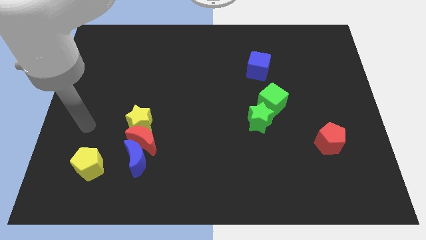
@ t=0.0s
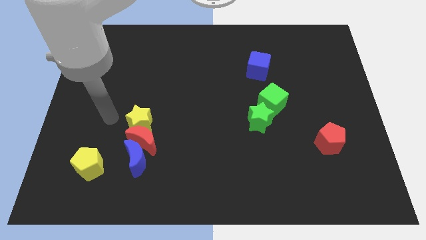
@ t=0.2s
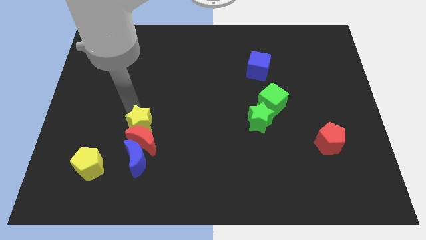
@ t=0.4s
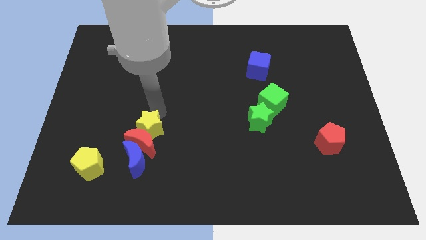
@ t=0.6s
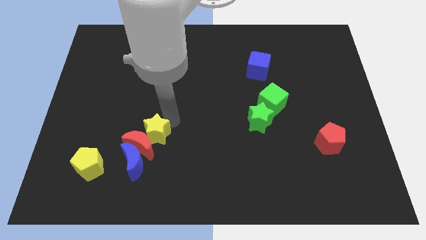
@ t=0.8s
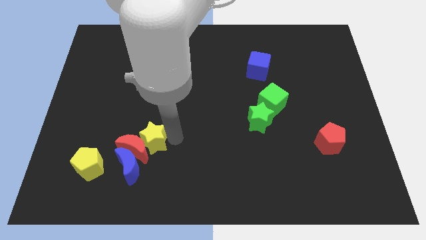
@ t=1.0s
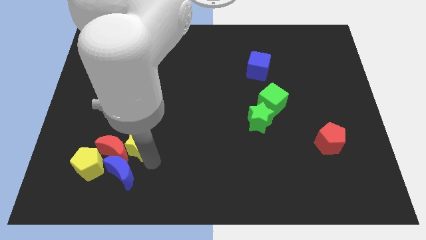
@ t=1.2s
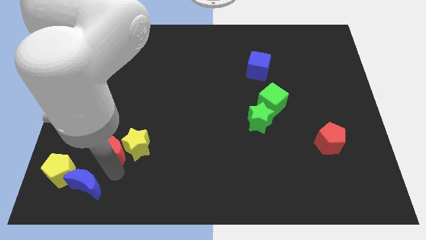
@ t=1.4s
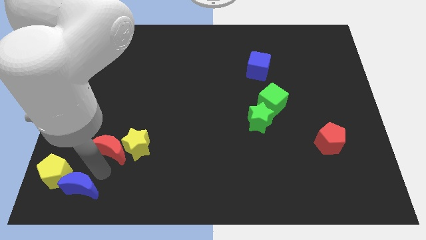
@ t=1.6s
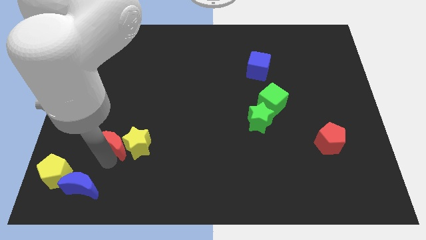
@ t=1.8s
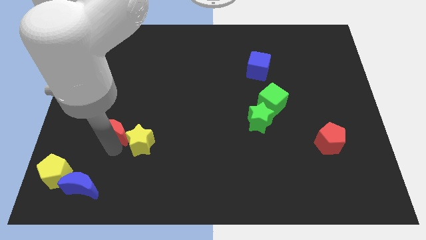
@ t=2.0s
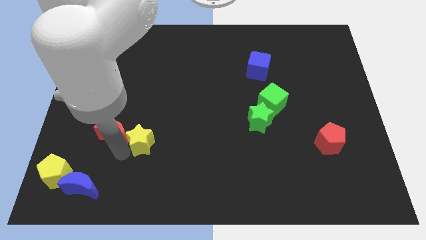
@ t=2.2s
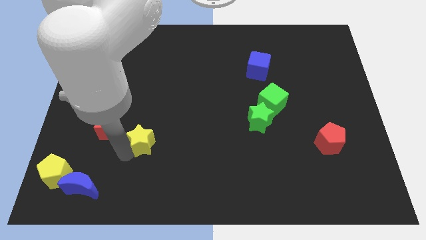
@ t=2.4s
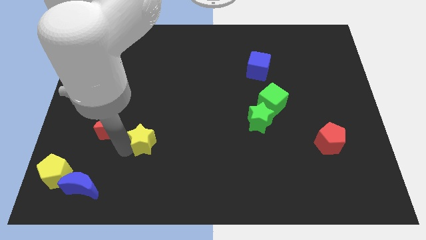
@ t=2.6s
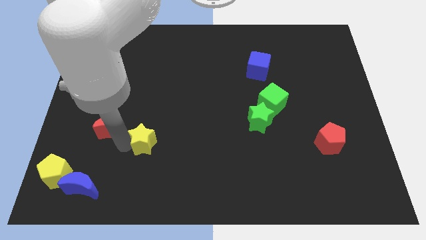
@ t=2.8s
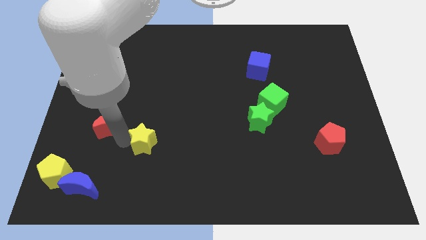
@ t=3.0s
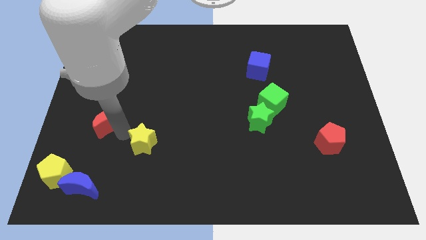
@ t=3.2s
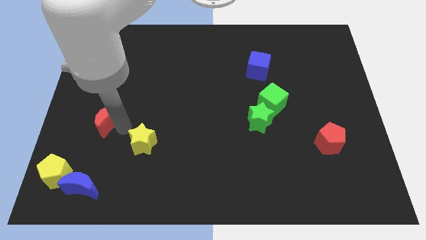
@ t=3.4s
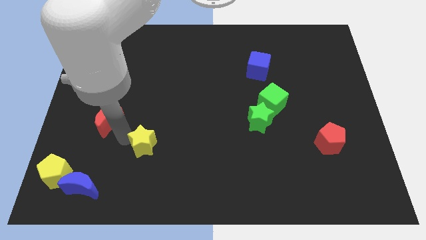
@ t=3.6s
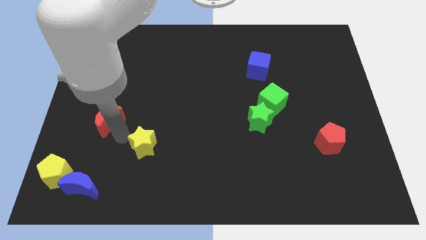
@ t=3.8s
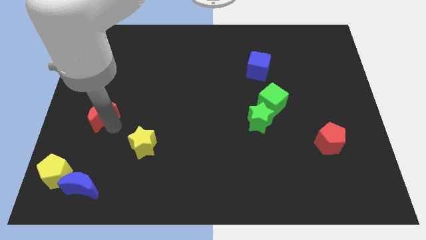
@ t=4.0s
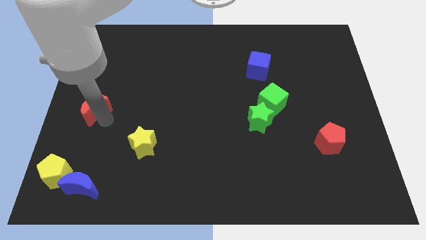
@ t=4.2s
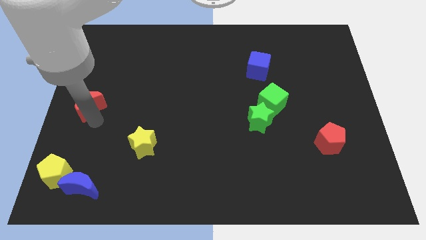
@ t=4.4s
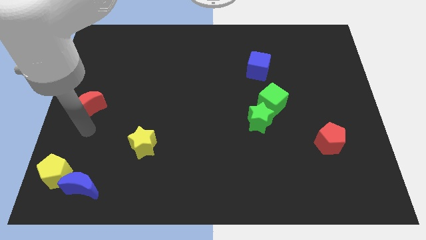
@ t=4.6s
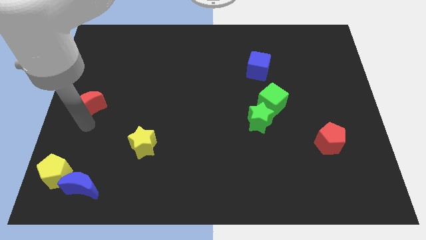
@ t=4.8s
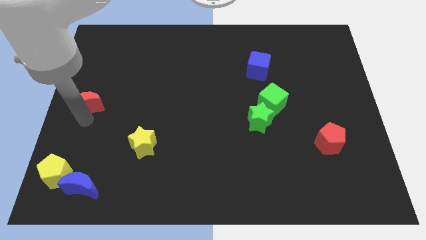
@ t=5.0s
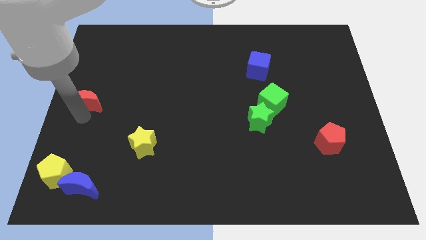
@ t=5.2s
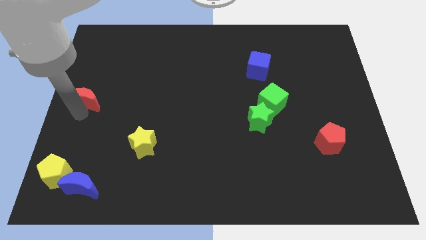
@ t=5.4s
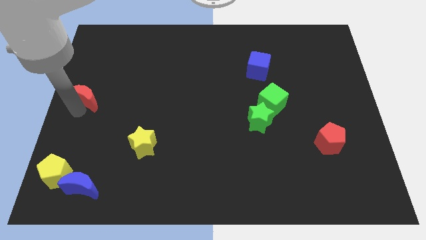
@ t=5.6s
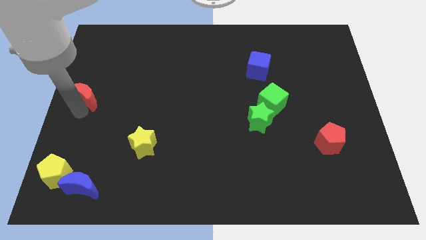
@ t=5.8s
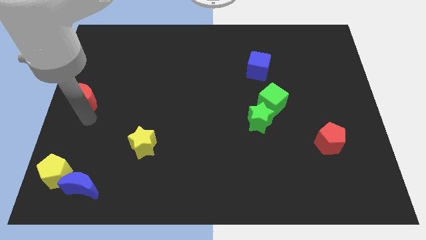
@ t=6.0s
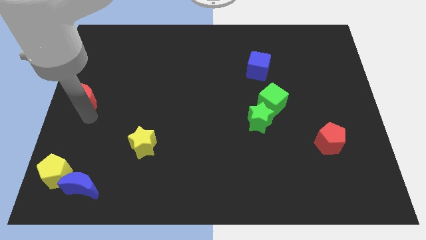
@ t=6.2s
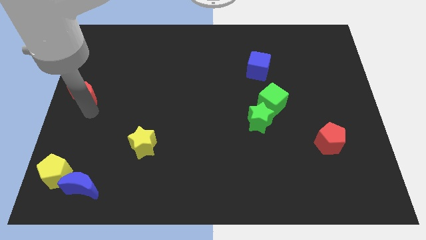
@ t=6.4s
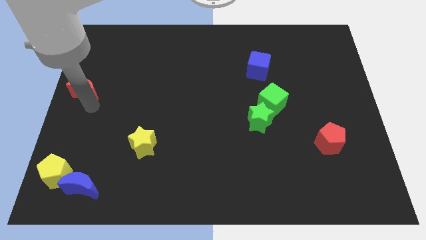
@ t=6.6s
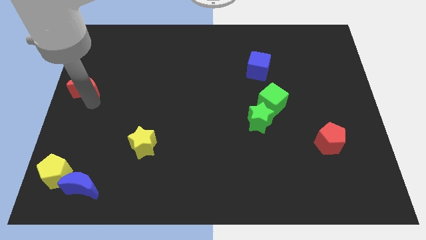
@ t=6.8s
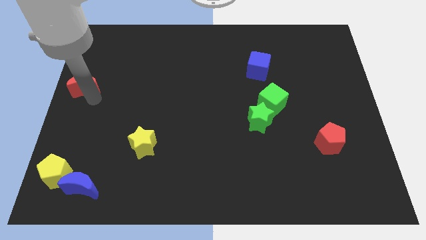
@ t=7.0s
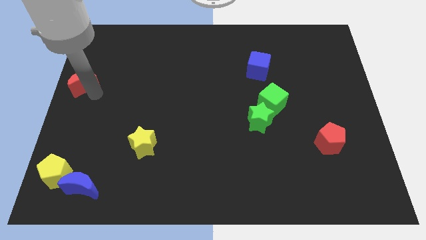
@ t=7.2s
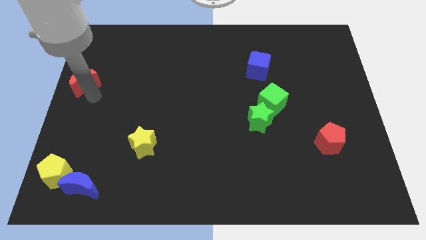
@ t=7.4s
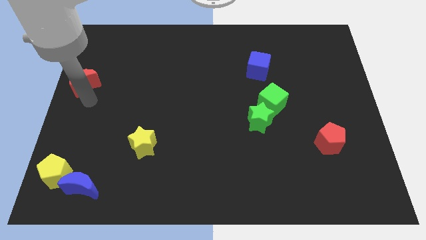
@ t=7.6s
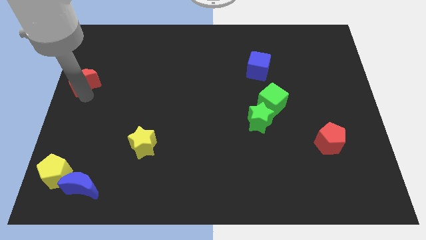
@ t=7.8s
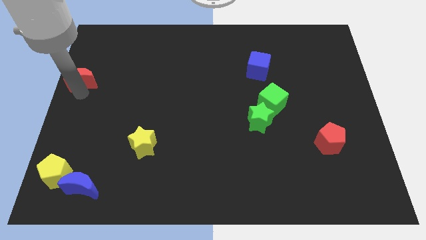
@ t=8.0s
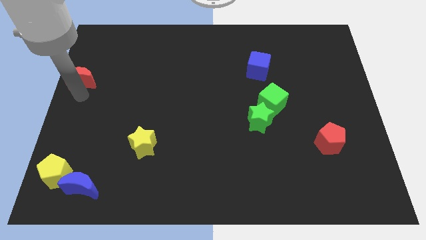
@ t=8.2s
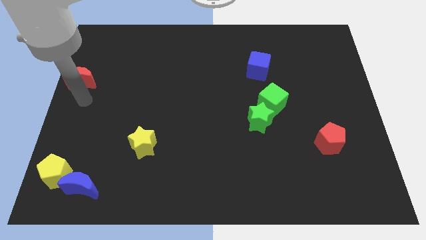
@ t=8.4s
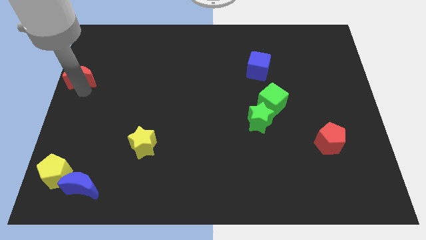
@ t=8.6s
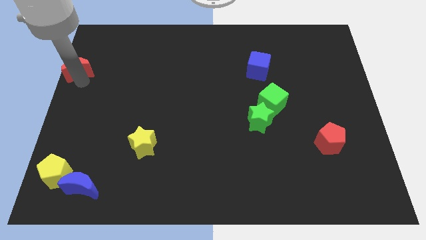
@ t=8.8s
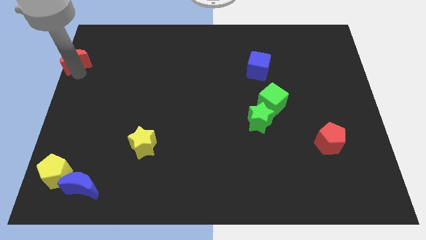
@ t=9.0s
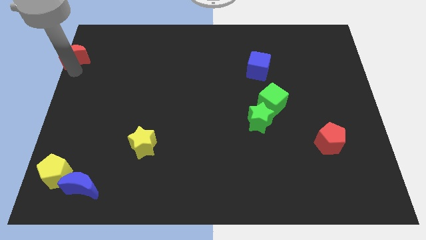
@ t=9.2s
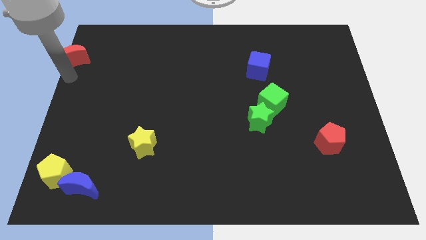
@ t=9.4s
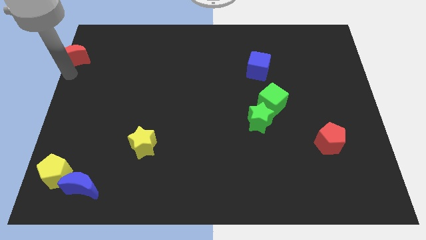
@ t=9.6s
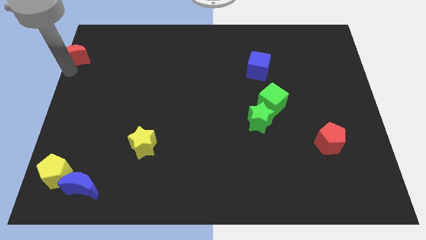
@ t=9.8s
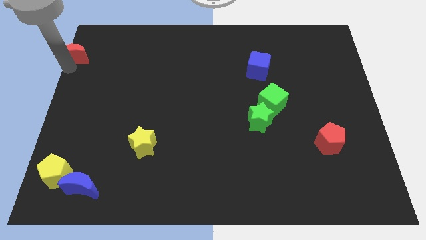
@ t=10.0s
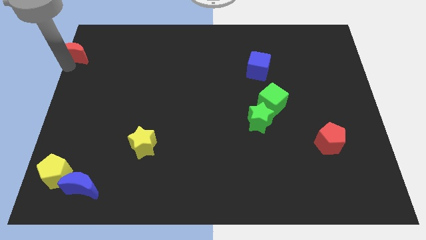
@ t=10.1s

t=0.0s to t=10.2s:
push the red moon to the upper left corner

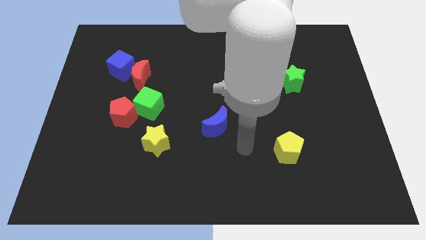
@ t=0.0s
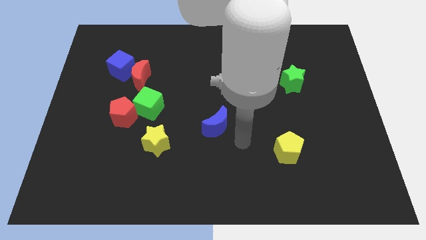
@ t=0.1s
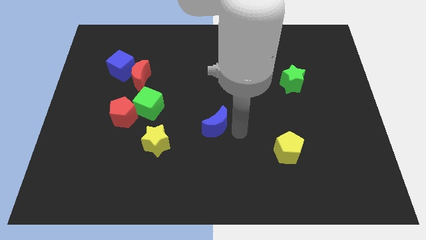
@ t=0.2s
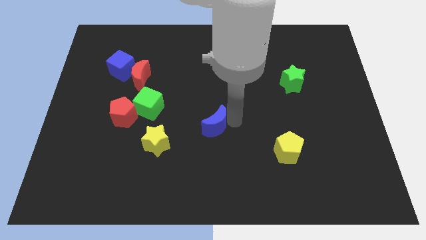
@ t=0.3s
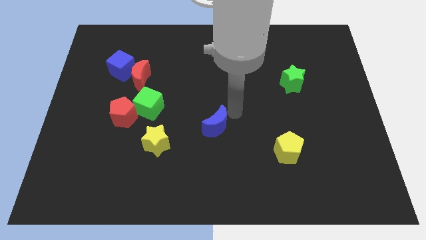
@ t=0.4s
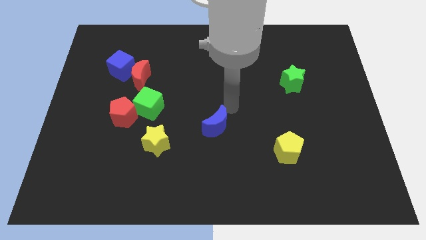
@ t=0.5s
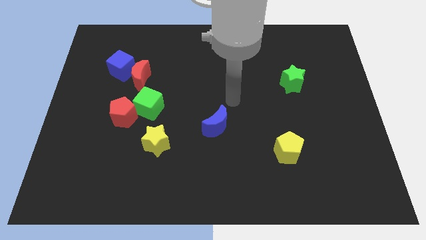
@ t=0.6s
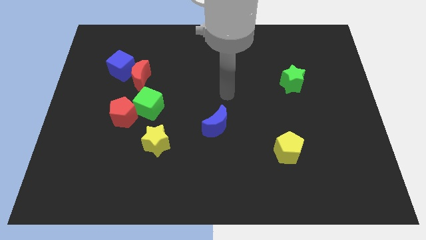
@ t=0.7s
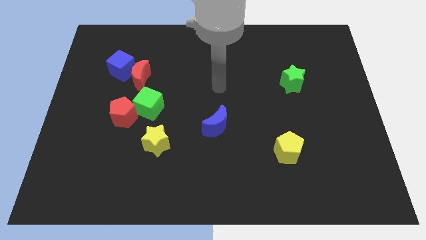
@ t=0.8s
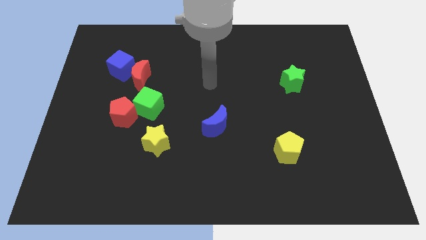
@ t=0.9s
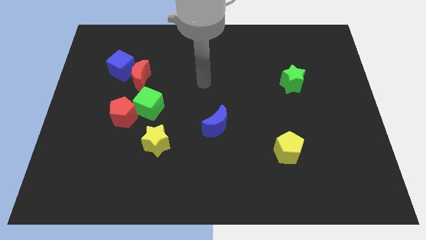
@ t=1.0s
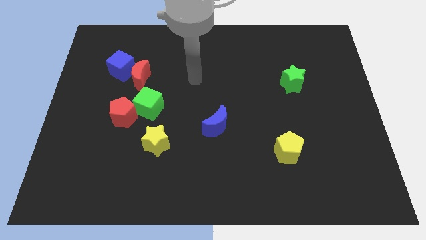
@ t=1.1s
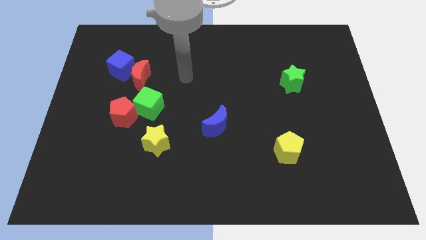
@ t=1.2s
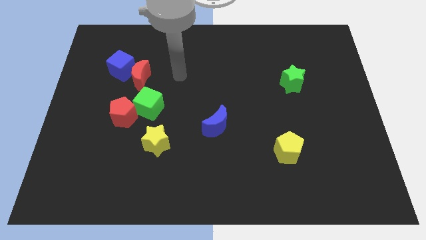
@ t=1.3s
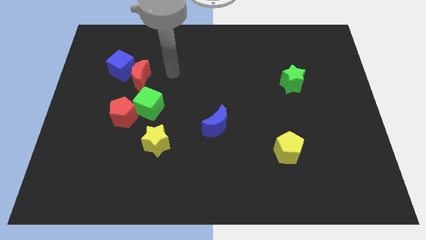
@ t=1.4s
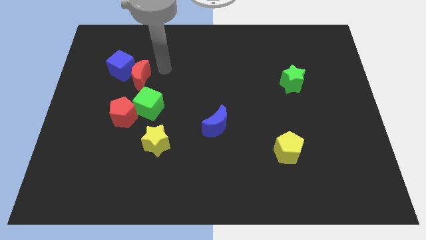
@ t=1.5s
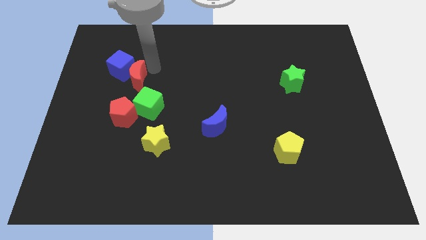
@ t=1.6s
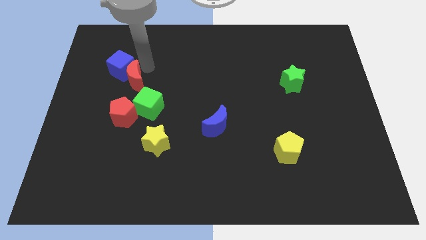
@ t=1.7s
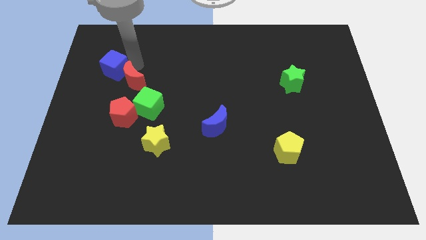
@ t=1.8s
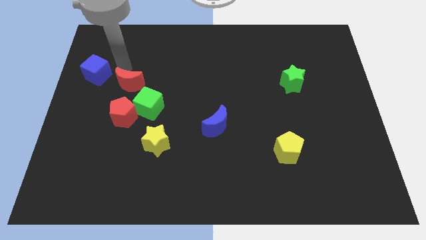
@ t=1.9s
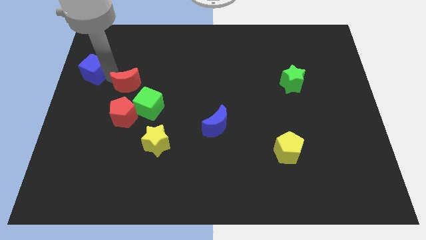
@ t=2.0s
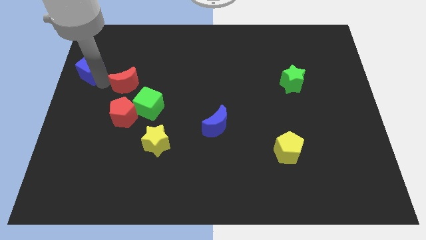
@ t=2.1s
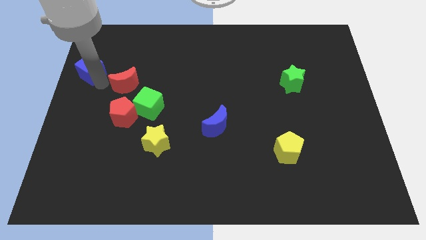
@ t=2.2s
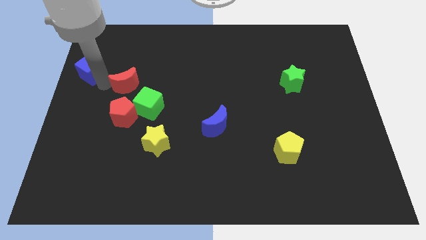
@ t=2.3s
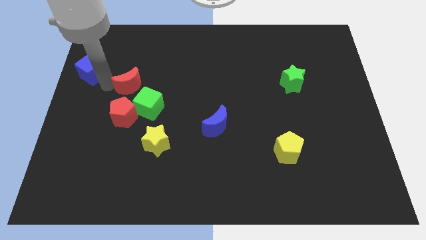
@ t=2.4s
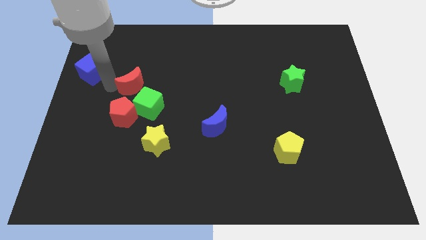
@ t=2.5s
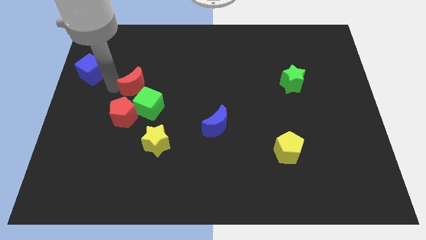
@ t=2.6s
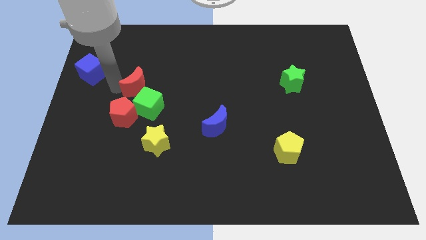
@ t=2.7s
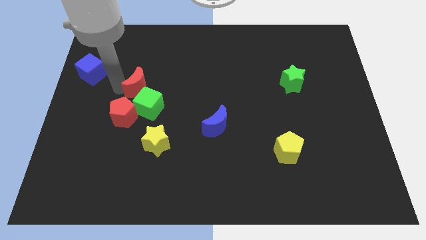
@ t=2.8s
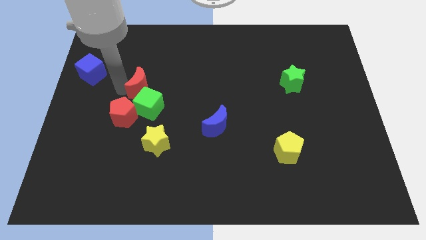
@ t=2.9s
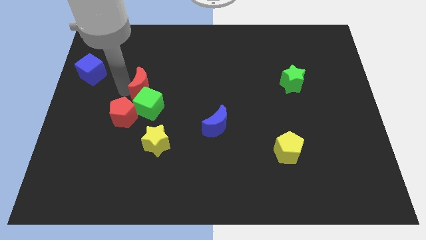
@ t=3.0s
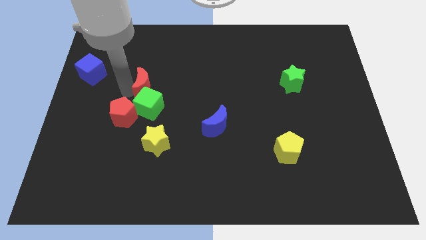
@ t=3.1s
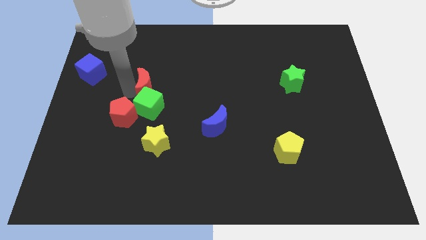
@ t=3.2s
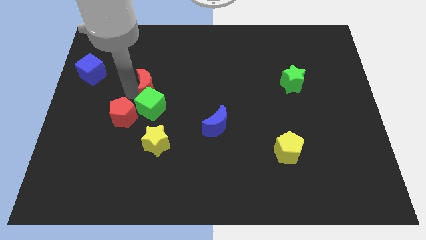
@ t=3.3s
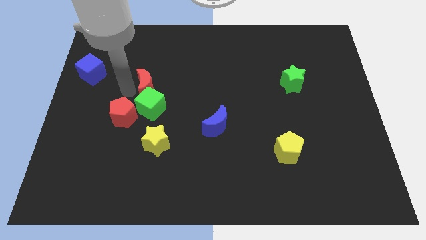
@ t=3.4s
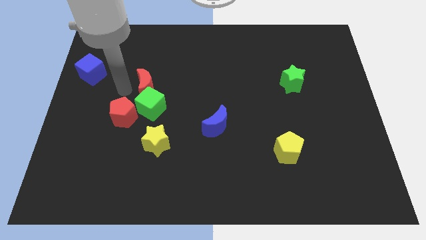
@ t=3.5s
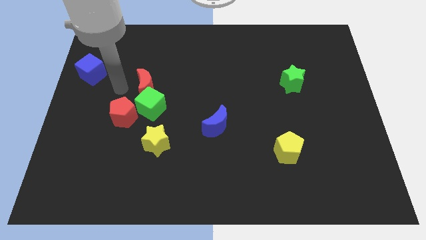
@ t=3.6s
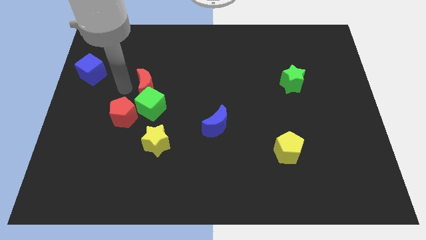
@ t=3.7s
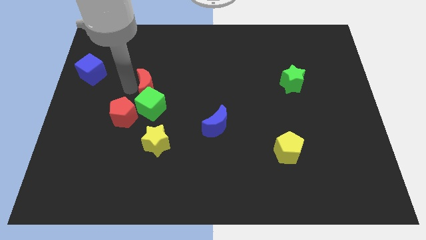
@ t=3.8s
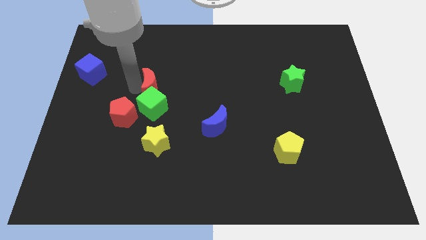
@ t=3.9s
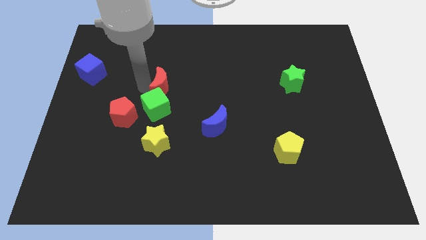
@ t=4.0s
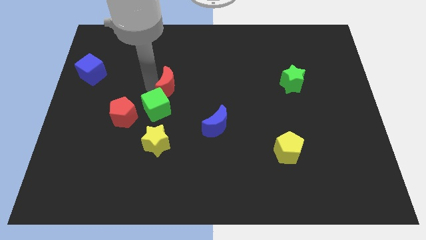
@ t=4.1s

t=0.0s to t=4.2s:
push the red moon to the middle of the board
